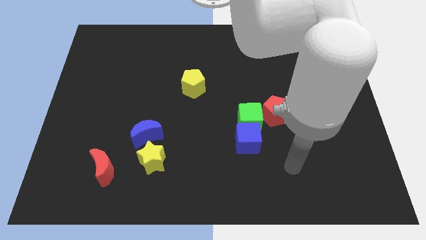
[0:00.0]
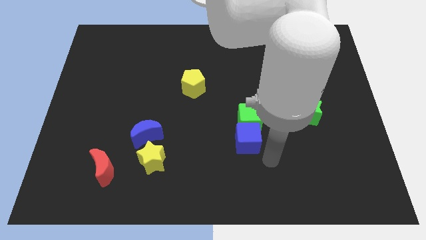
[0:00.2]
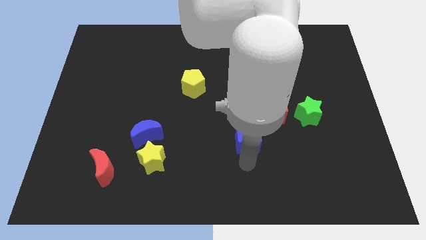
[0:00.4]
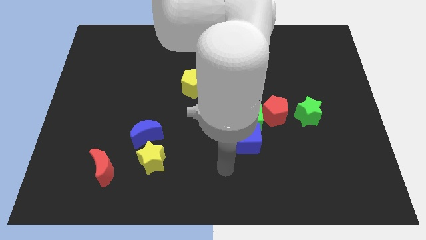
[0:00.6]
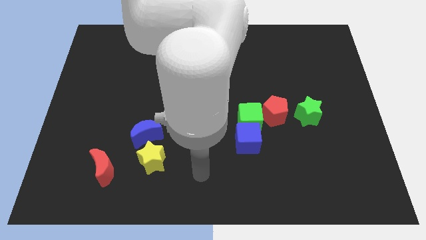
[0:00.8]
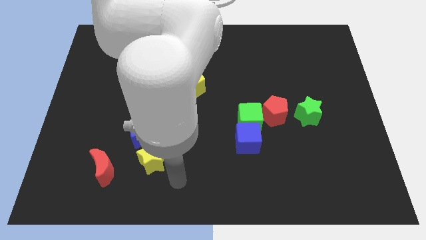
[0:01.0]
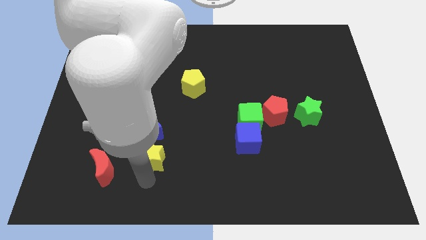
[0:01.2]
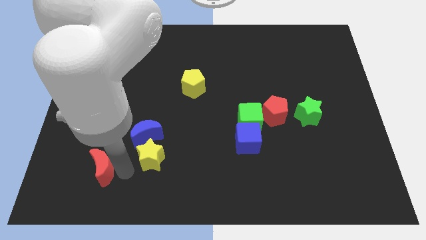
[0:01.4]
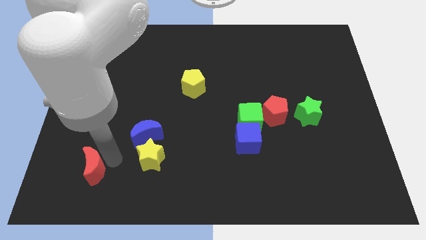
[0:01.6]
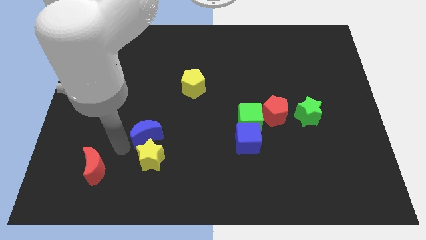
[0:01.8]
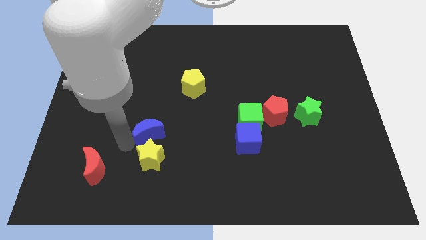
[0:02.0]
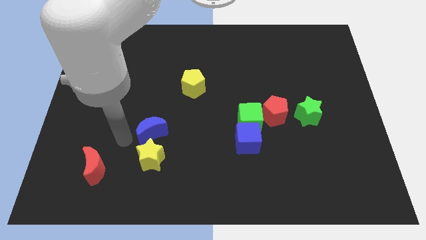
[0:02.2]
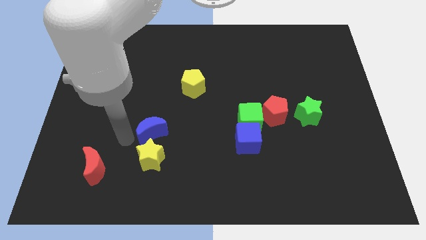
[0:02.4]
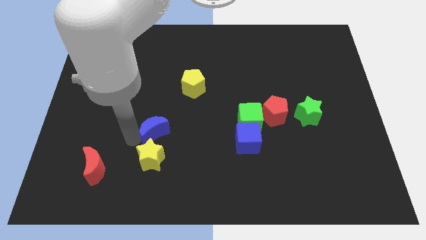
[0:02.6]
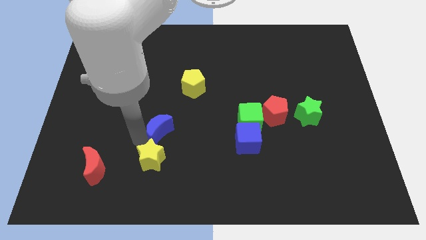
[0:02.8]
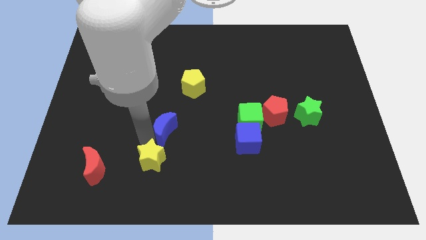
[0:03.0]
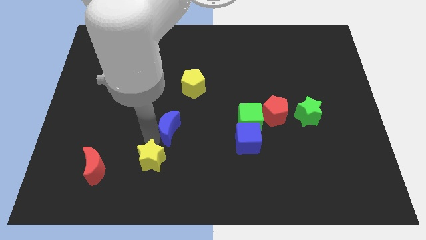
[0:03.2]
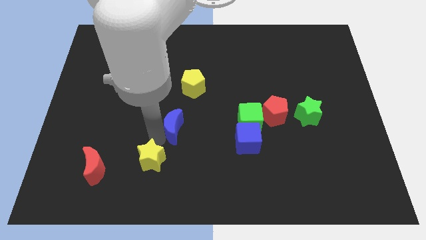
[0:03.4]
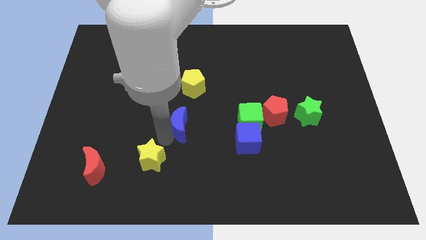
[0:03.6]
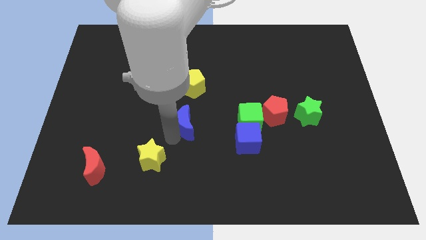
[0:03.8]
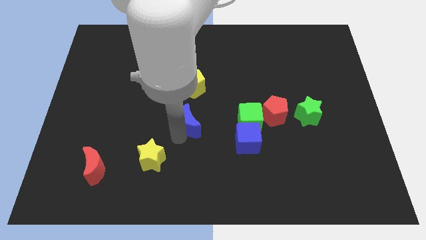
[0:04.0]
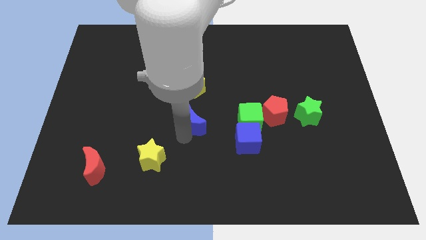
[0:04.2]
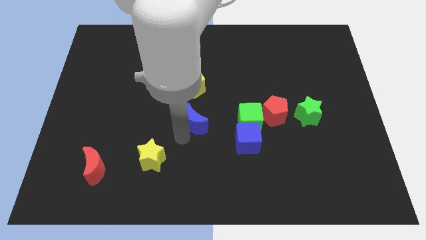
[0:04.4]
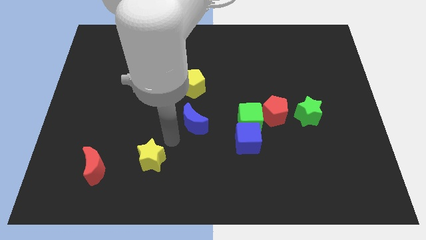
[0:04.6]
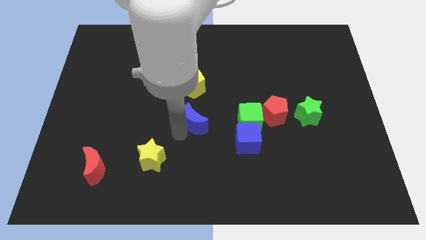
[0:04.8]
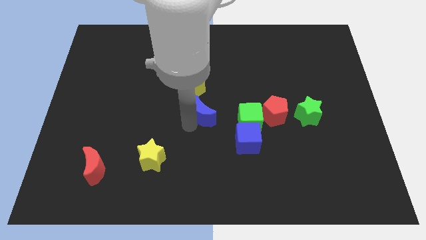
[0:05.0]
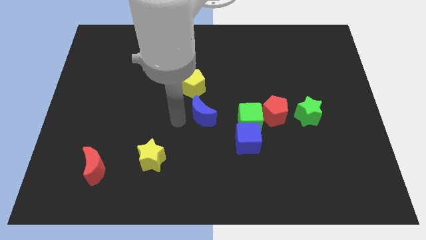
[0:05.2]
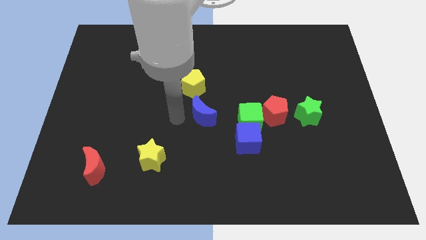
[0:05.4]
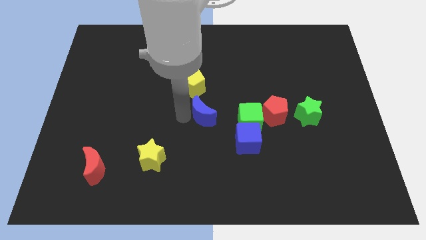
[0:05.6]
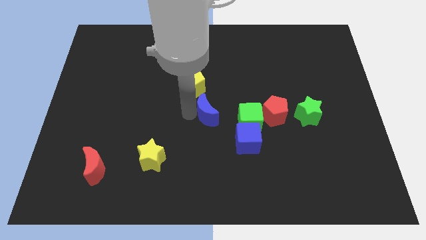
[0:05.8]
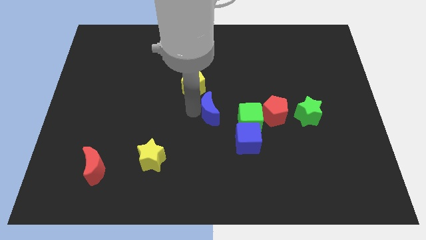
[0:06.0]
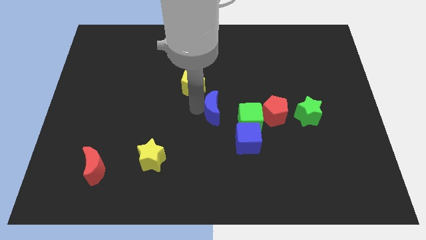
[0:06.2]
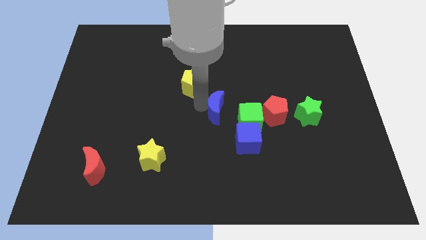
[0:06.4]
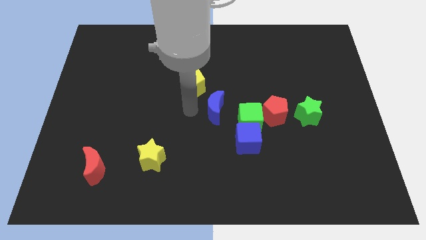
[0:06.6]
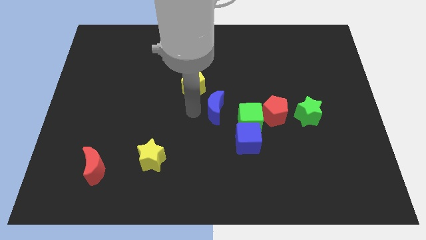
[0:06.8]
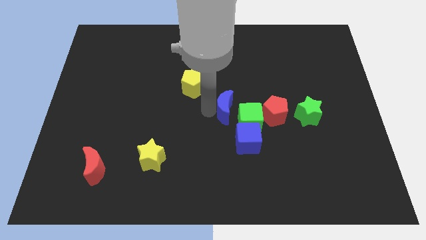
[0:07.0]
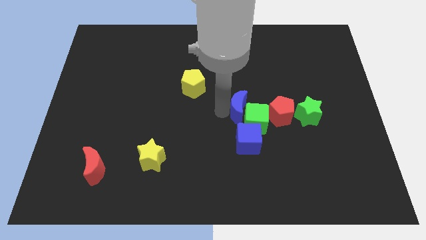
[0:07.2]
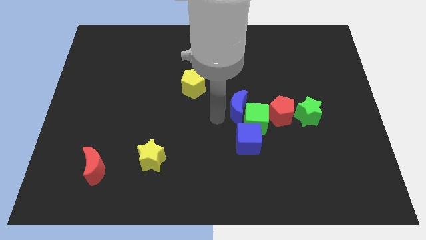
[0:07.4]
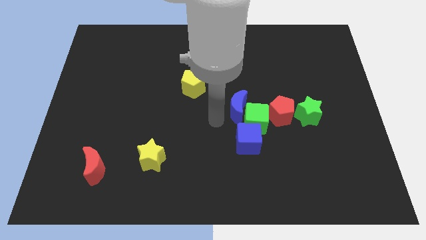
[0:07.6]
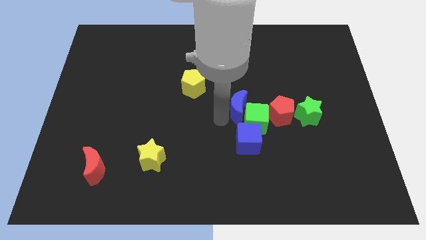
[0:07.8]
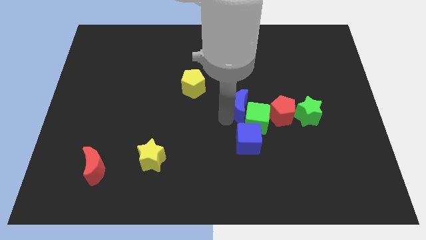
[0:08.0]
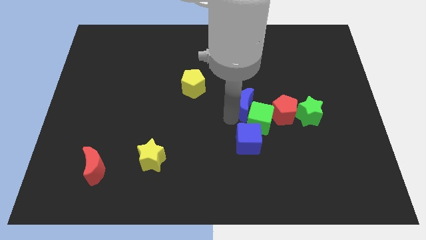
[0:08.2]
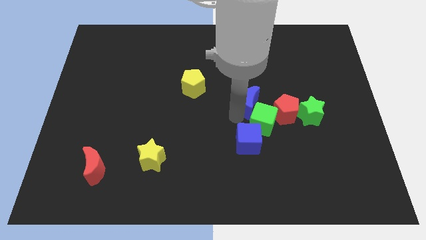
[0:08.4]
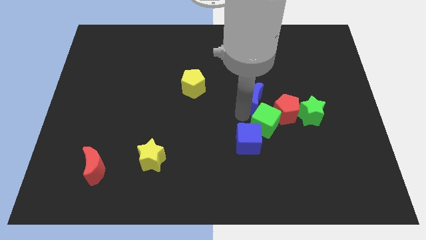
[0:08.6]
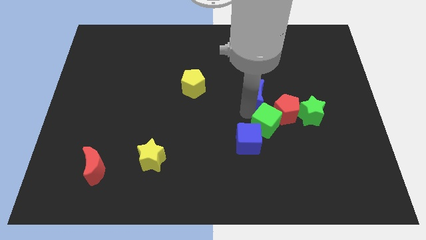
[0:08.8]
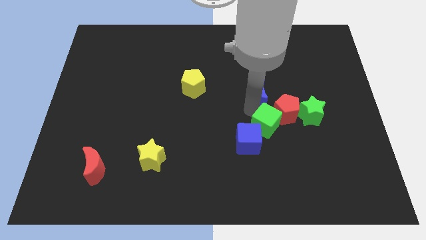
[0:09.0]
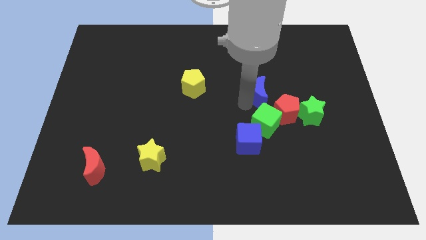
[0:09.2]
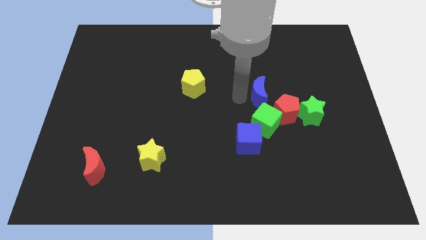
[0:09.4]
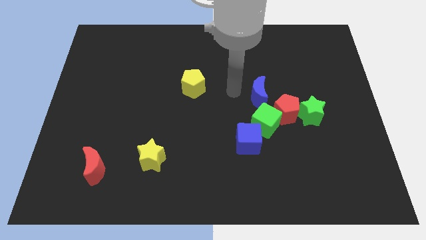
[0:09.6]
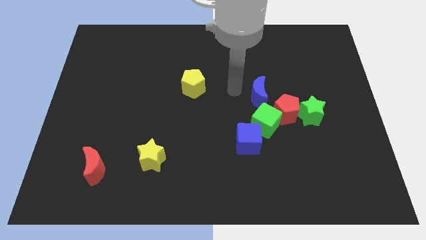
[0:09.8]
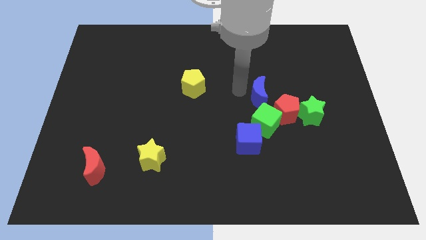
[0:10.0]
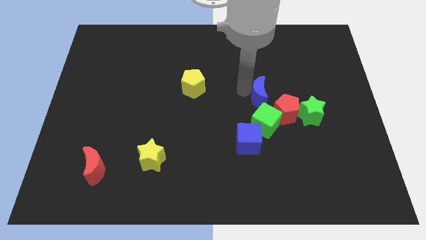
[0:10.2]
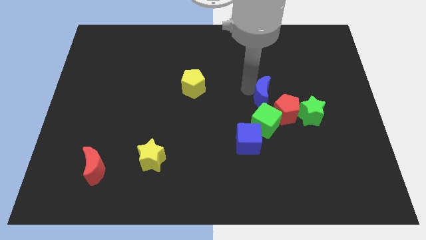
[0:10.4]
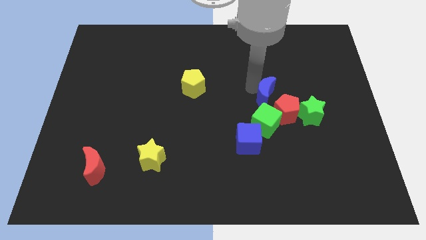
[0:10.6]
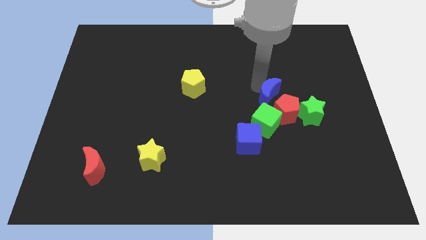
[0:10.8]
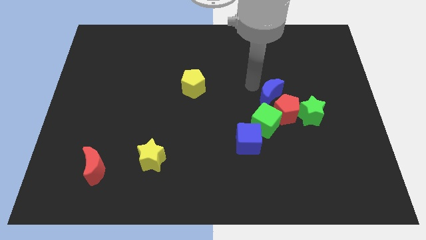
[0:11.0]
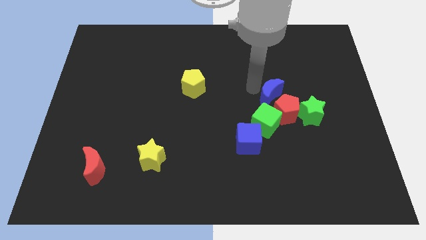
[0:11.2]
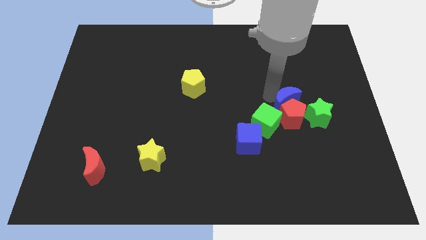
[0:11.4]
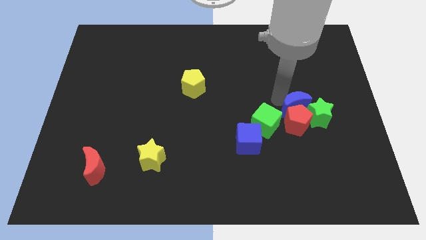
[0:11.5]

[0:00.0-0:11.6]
push the blue moon close to the green star

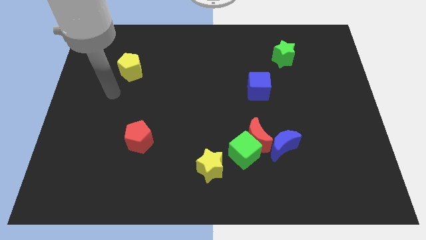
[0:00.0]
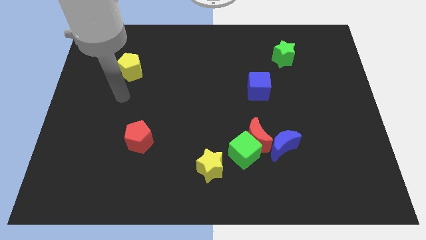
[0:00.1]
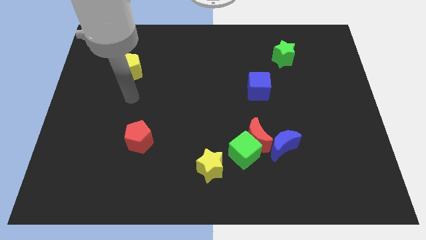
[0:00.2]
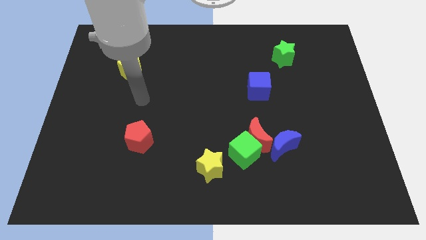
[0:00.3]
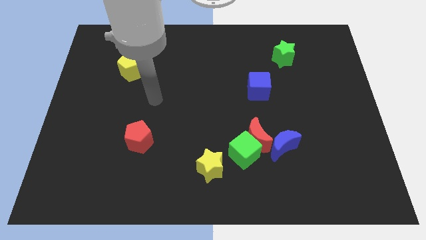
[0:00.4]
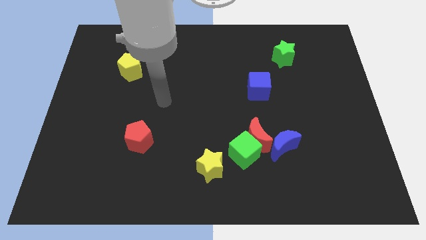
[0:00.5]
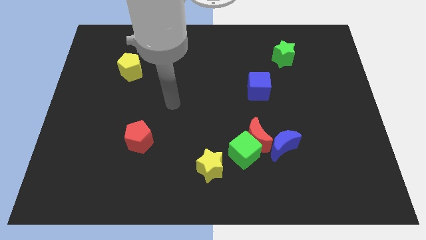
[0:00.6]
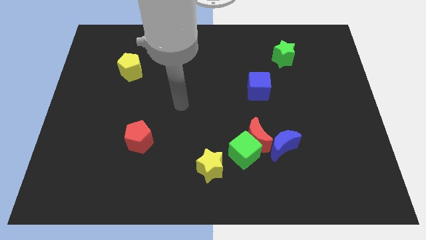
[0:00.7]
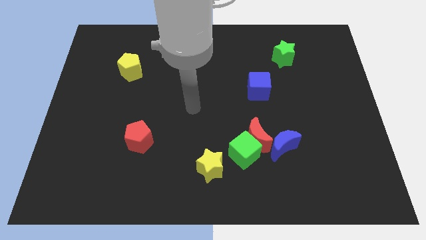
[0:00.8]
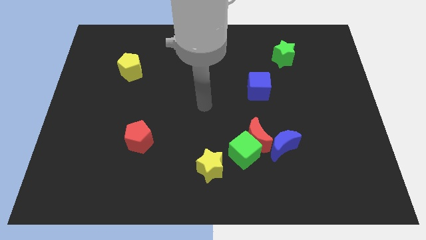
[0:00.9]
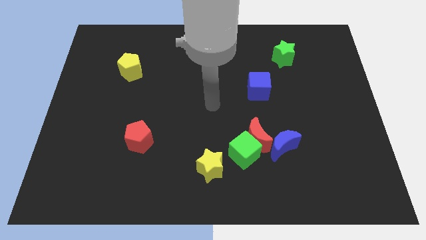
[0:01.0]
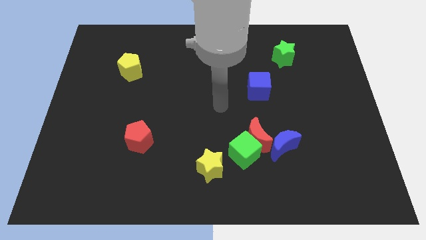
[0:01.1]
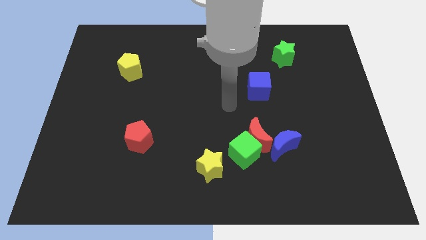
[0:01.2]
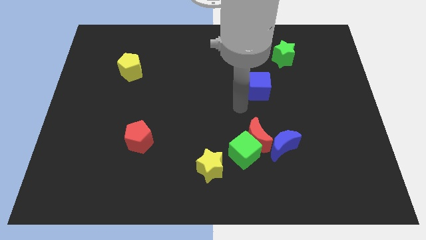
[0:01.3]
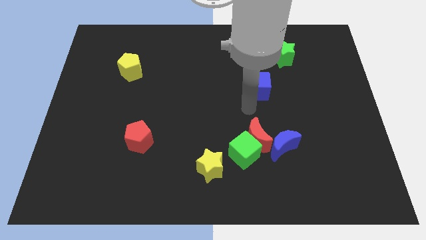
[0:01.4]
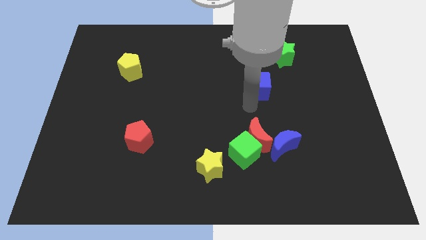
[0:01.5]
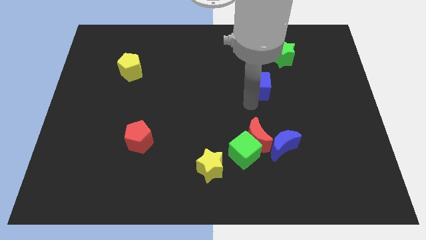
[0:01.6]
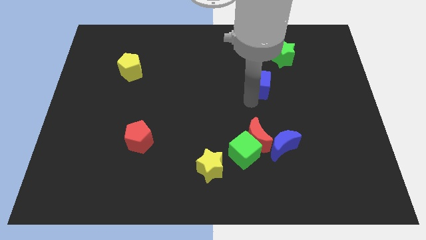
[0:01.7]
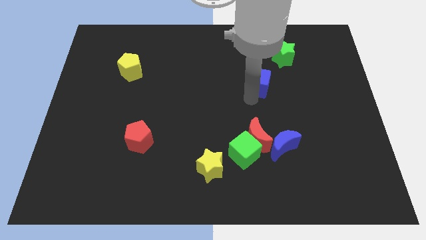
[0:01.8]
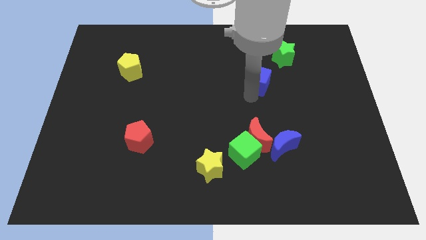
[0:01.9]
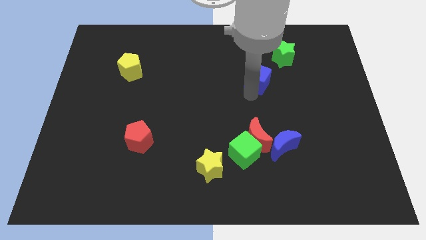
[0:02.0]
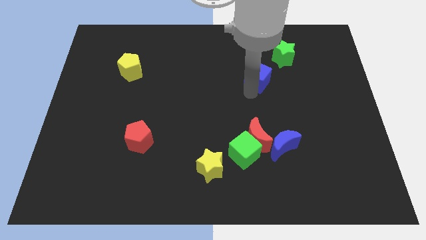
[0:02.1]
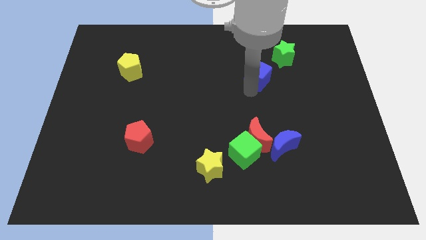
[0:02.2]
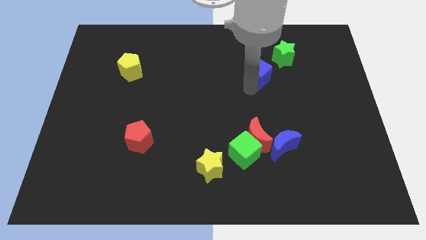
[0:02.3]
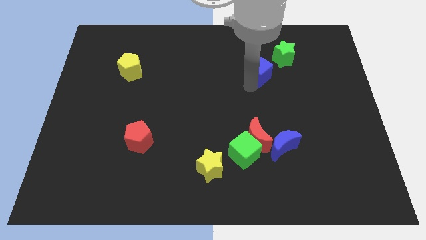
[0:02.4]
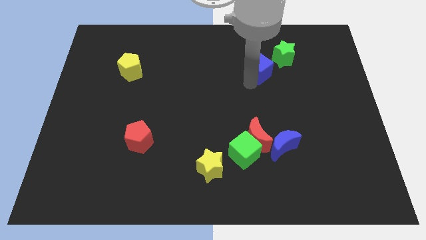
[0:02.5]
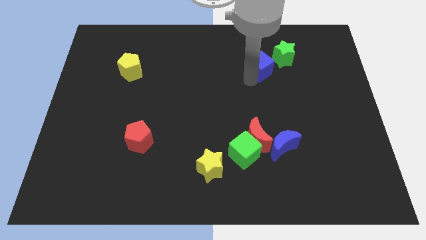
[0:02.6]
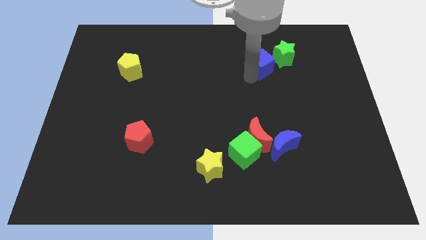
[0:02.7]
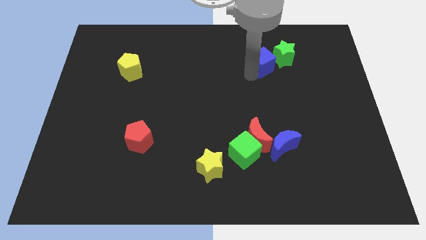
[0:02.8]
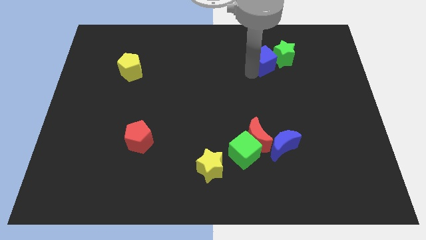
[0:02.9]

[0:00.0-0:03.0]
move the blue cube next to the green star
